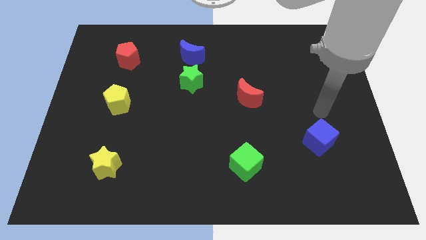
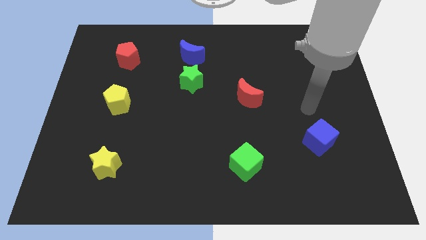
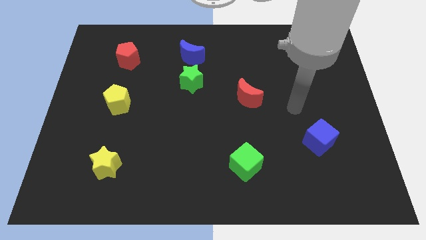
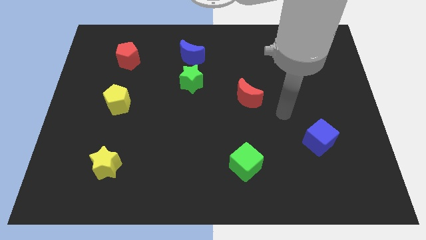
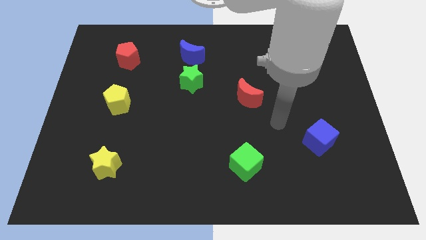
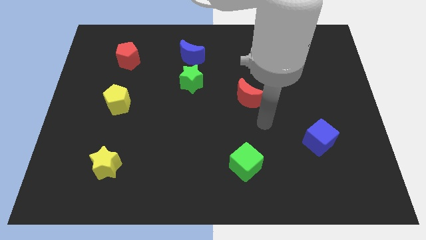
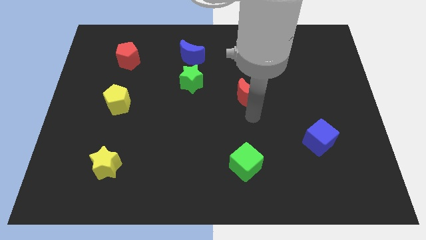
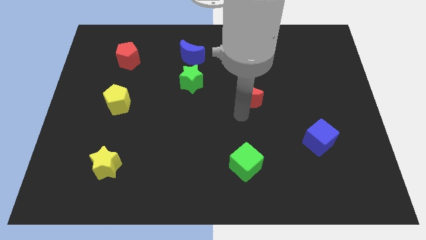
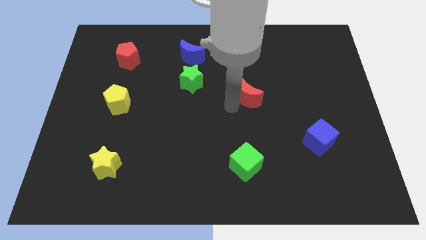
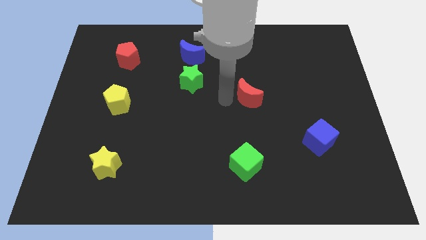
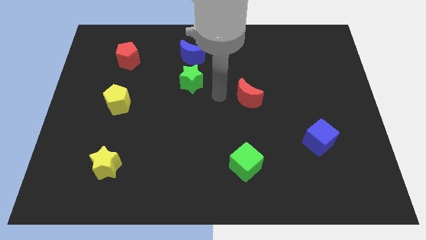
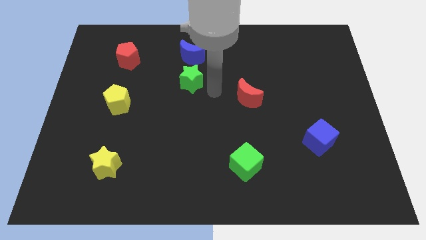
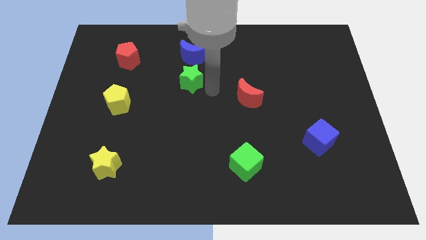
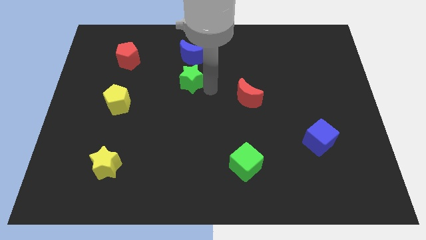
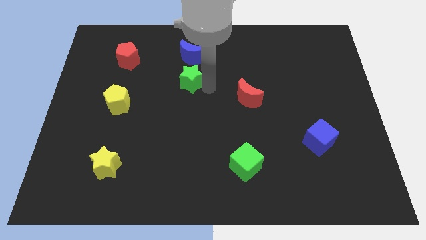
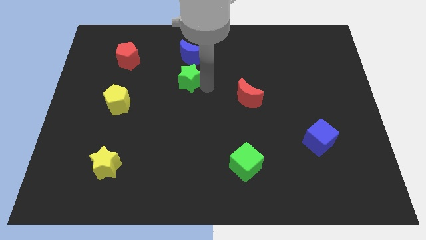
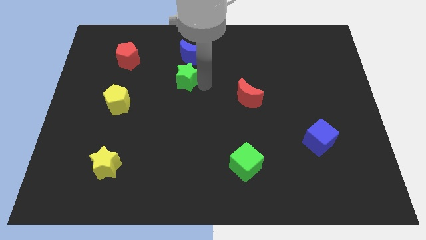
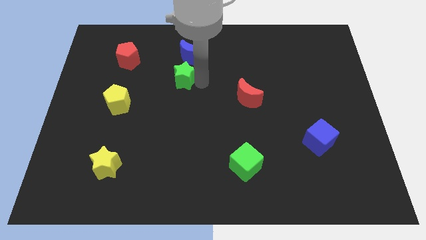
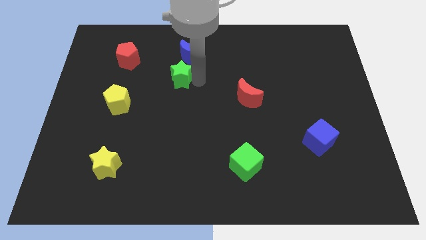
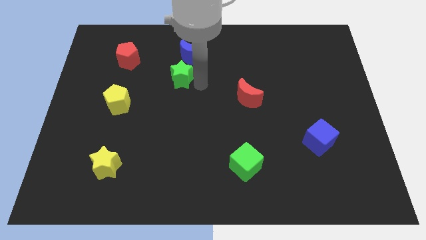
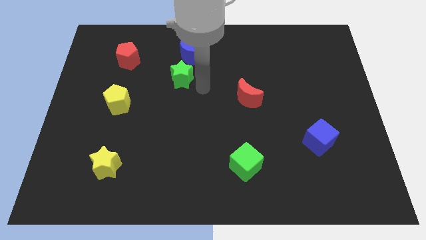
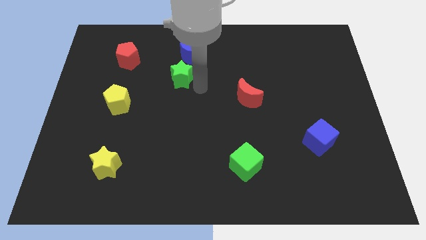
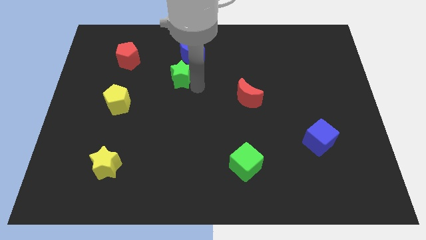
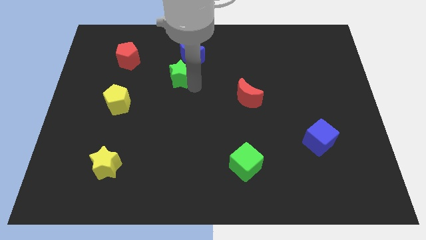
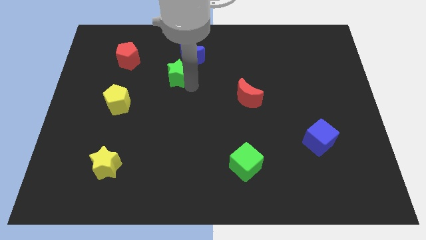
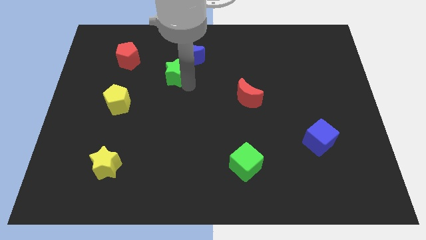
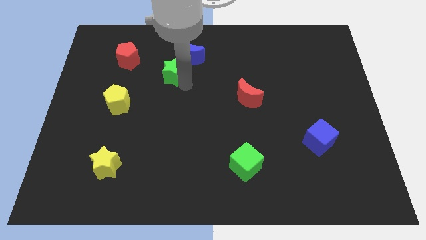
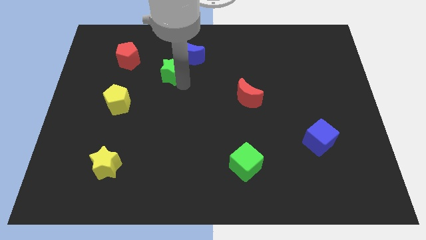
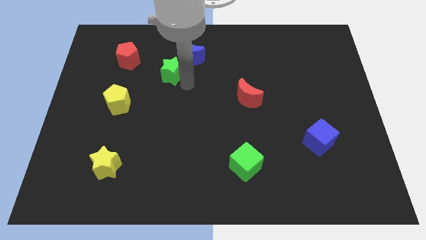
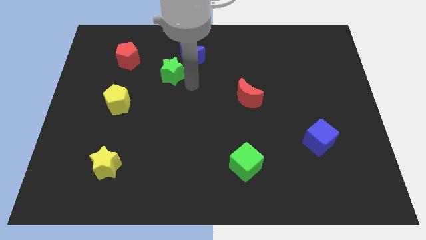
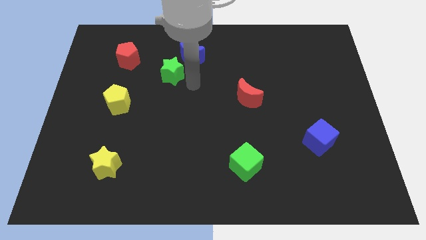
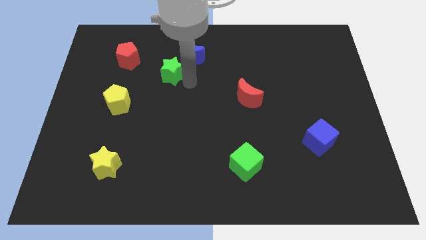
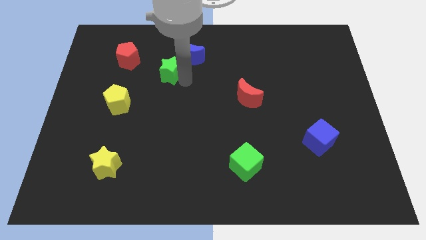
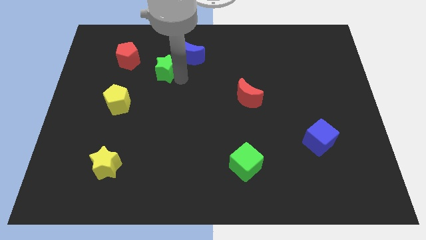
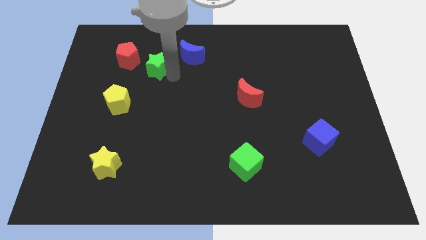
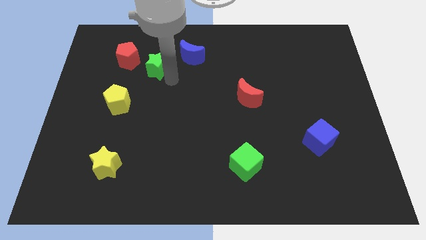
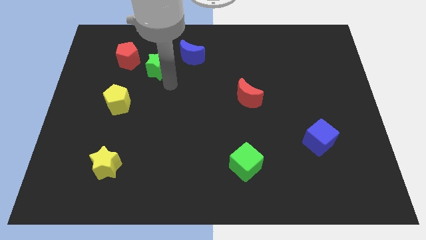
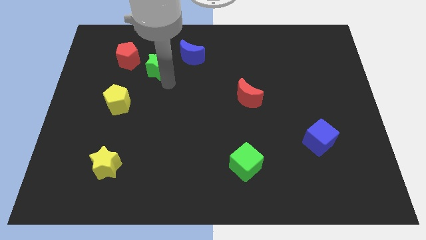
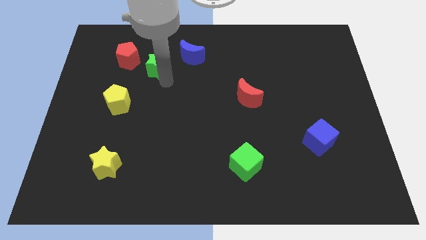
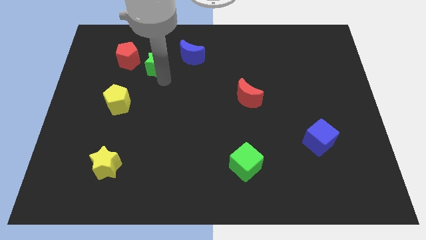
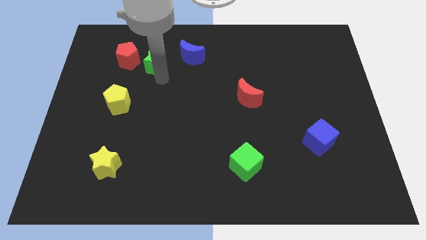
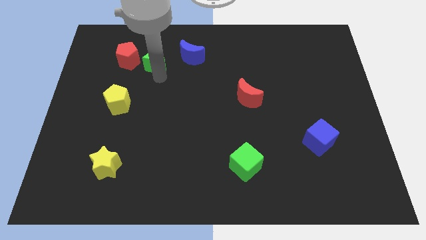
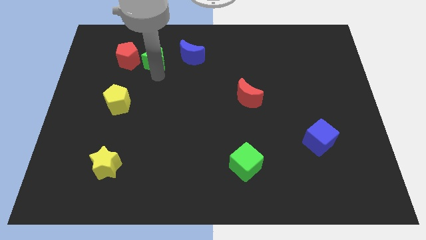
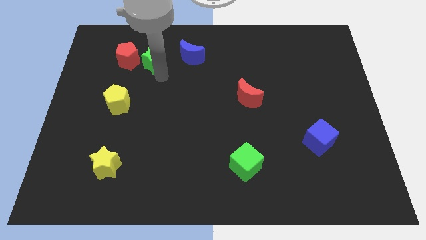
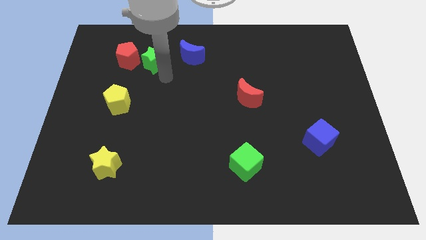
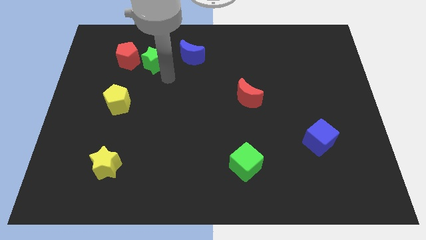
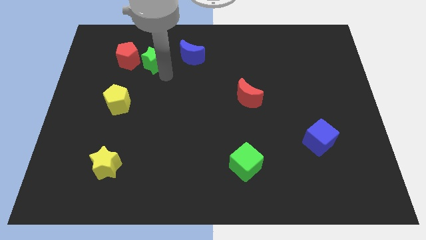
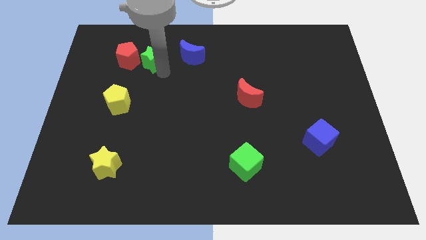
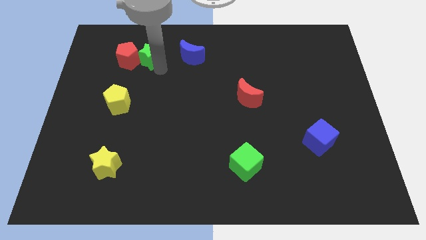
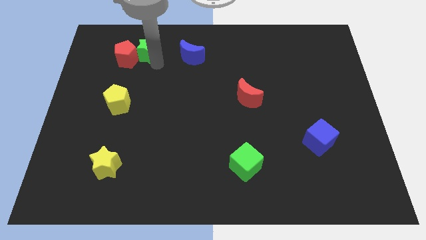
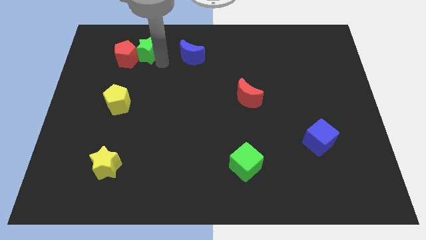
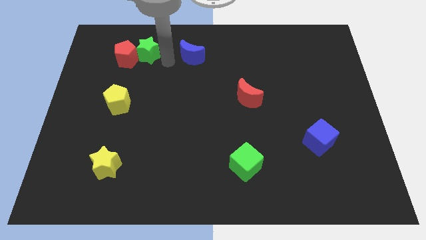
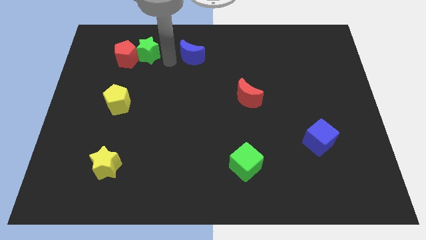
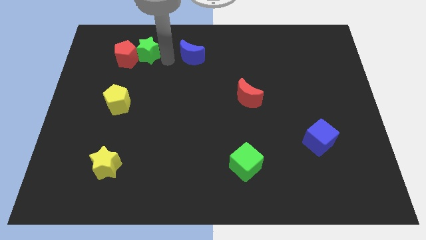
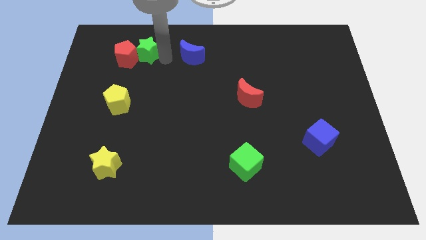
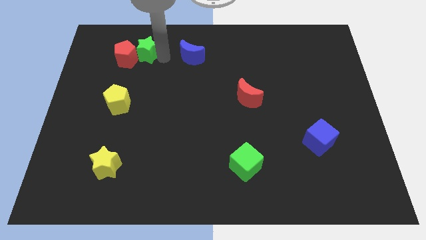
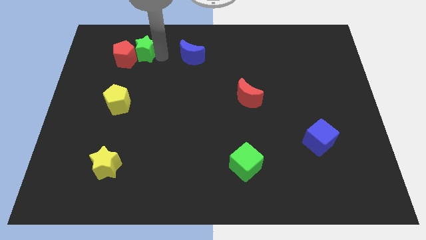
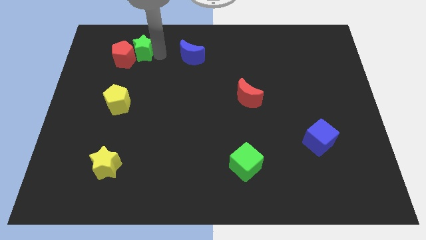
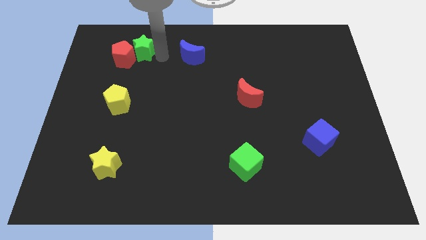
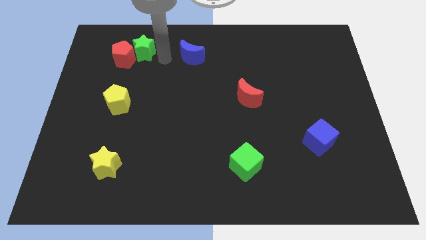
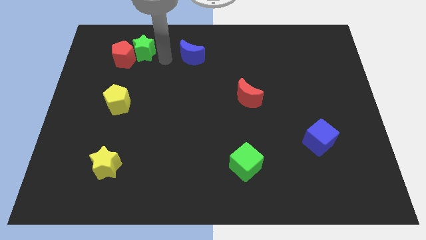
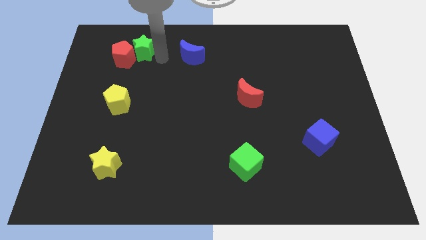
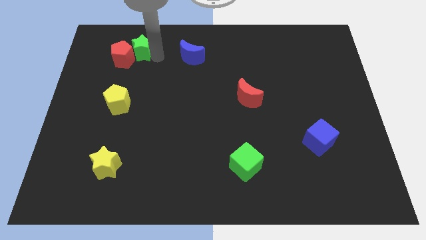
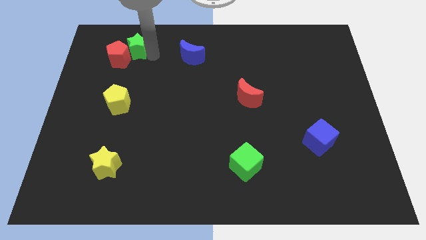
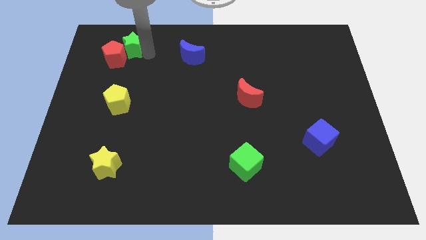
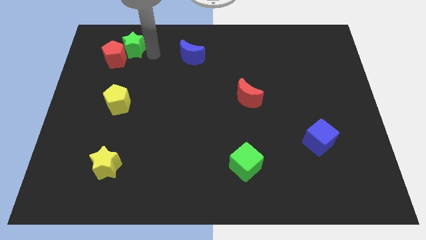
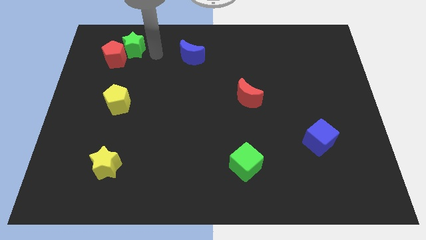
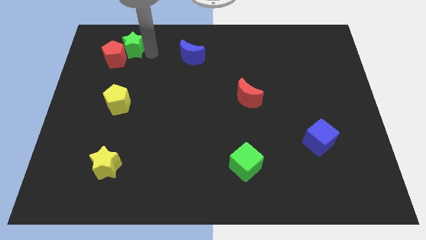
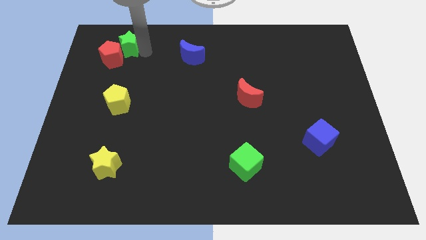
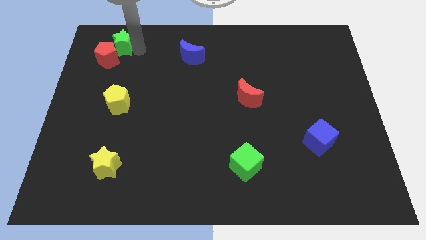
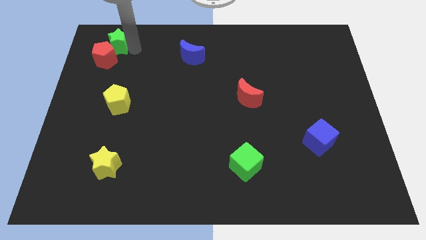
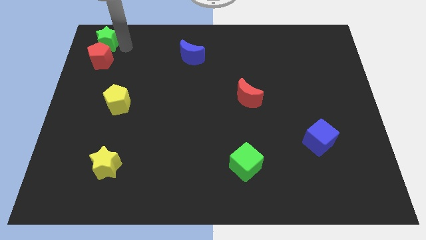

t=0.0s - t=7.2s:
slide the green star to the top left
